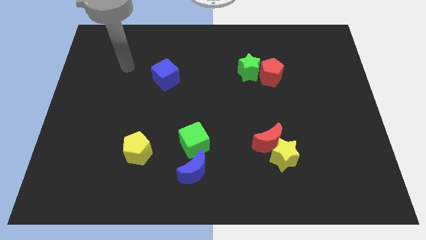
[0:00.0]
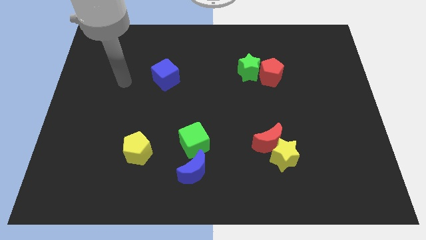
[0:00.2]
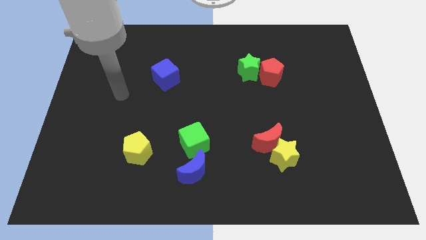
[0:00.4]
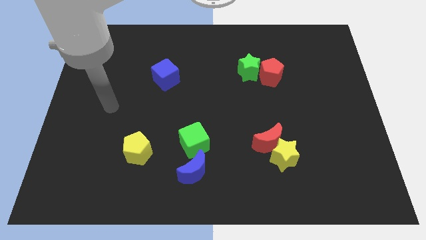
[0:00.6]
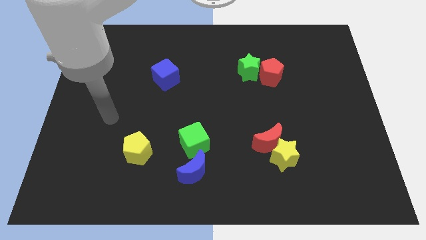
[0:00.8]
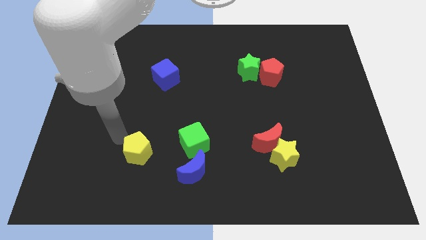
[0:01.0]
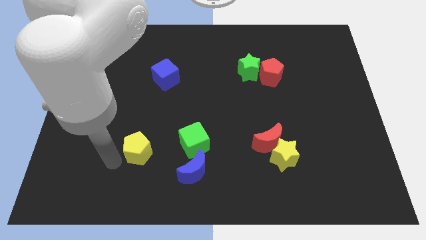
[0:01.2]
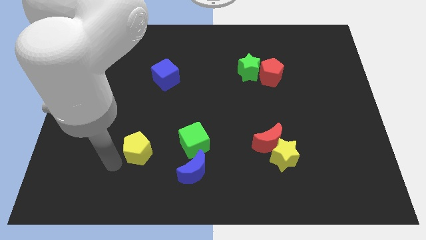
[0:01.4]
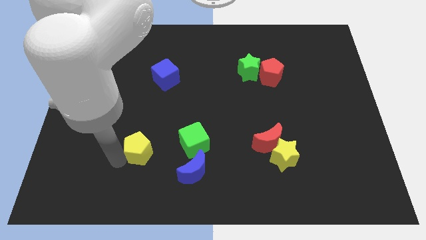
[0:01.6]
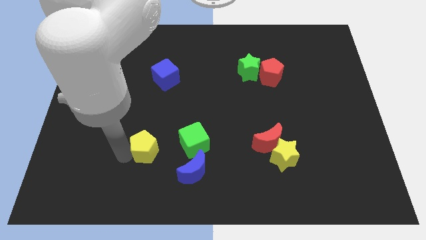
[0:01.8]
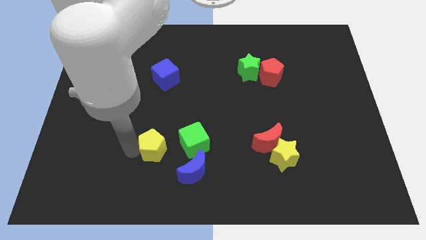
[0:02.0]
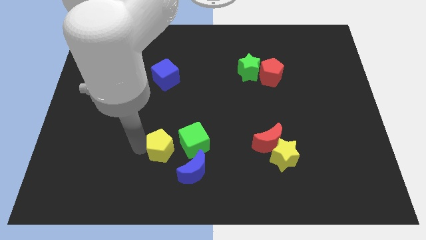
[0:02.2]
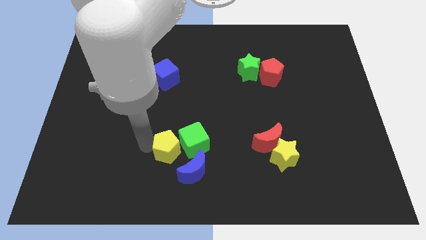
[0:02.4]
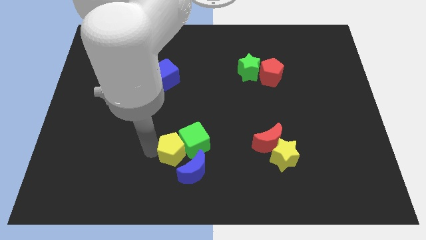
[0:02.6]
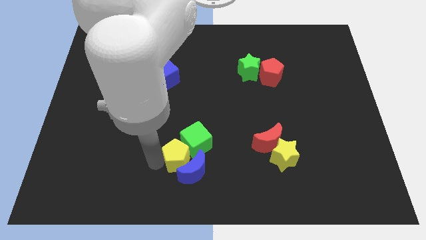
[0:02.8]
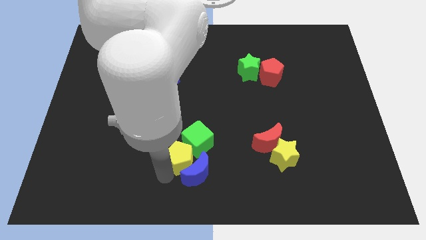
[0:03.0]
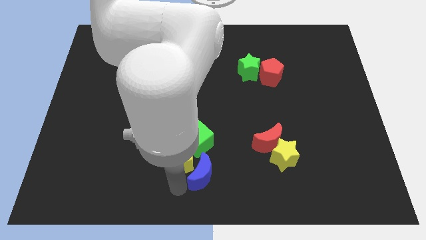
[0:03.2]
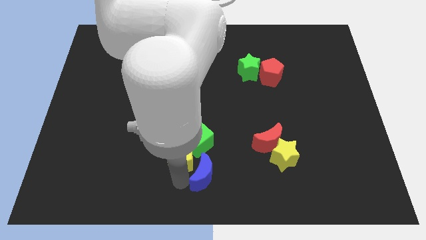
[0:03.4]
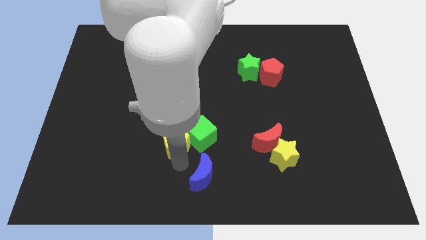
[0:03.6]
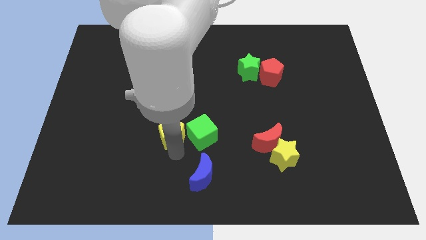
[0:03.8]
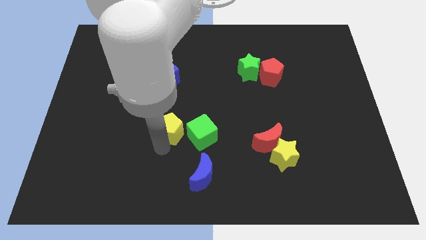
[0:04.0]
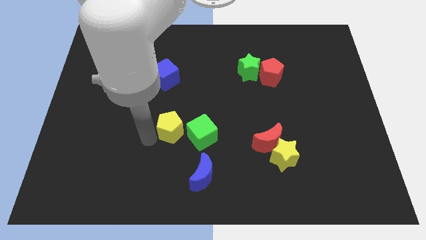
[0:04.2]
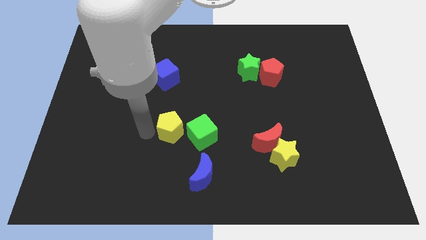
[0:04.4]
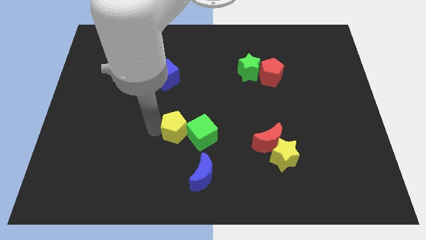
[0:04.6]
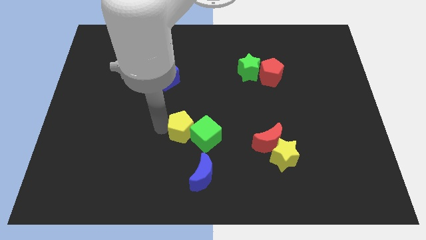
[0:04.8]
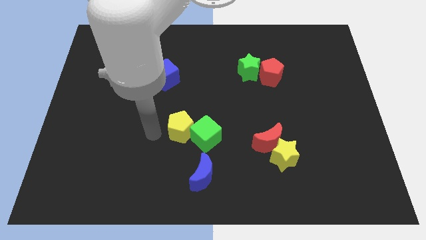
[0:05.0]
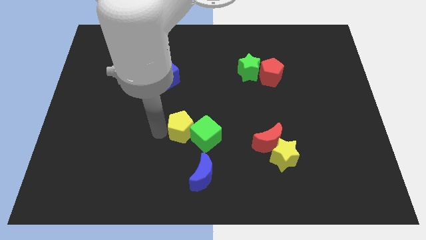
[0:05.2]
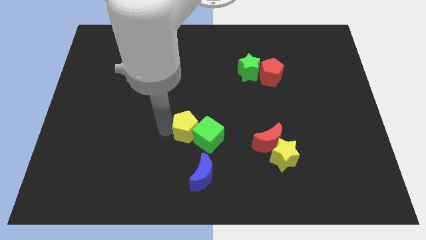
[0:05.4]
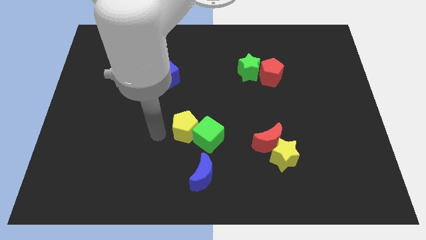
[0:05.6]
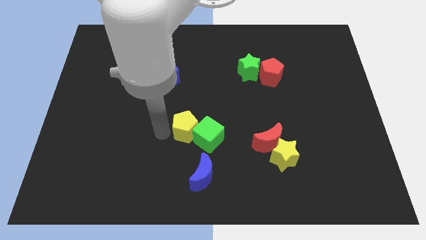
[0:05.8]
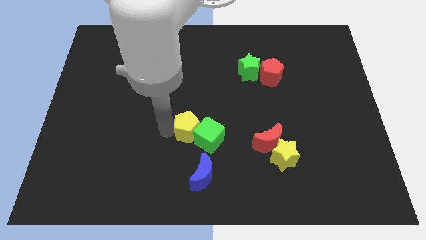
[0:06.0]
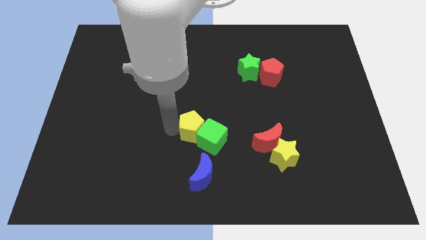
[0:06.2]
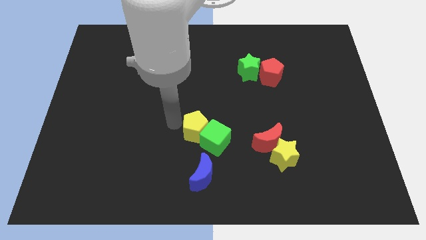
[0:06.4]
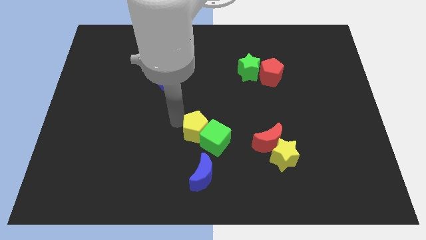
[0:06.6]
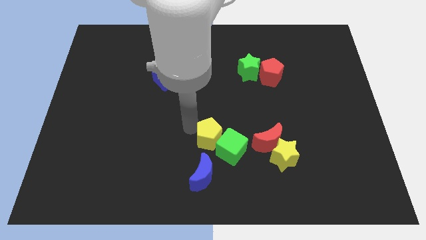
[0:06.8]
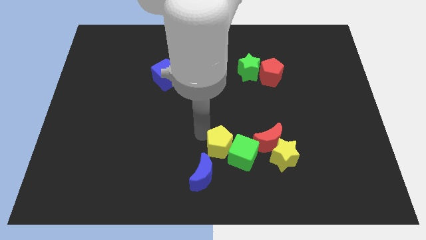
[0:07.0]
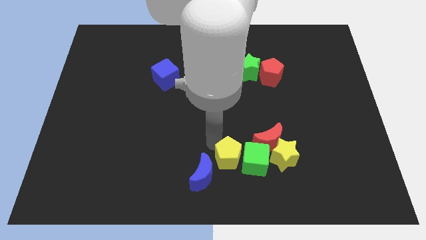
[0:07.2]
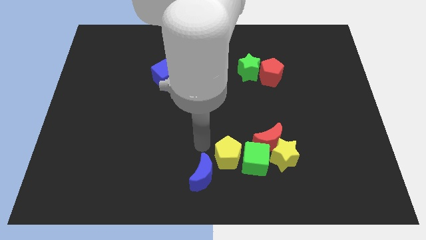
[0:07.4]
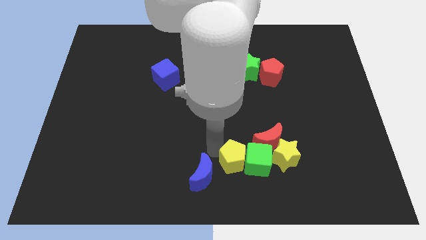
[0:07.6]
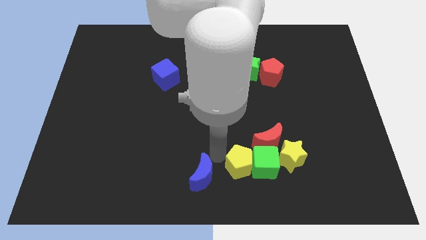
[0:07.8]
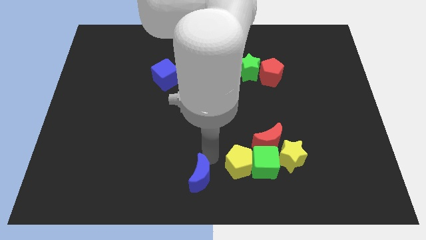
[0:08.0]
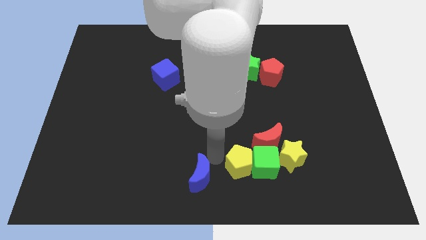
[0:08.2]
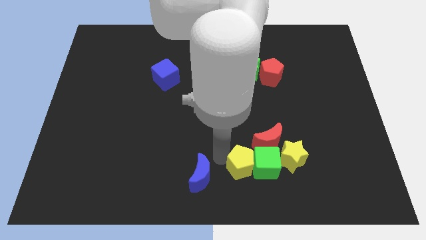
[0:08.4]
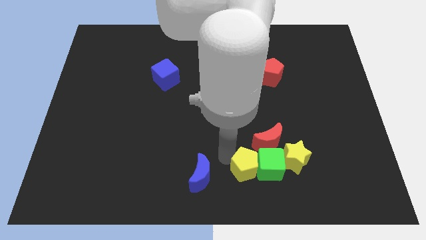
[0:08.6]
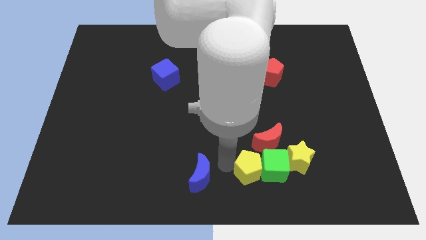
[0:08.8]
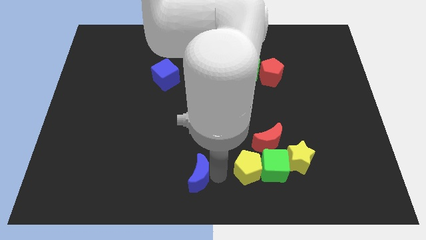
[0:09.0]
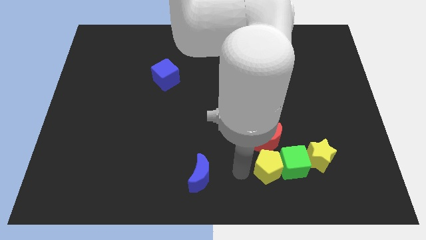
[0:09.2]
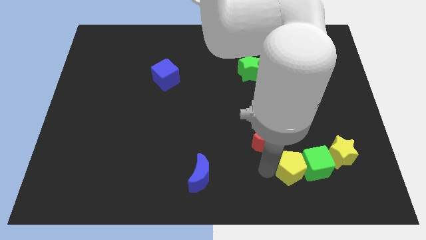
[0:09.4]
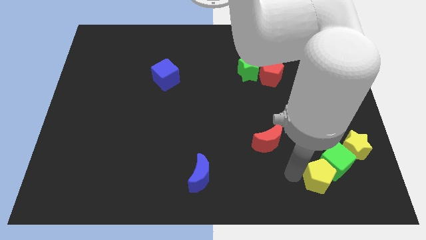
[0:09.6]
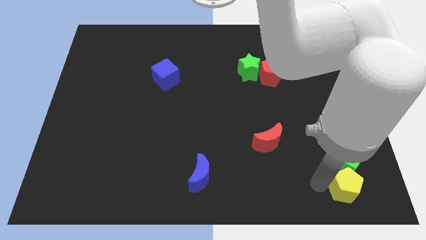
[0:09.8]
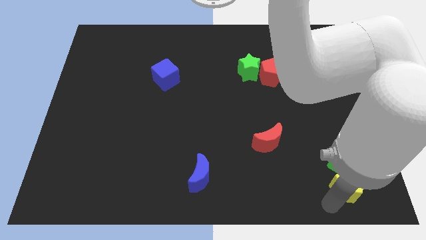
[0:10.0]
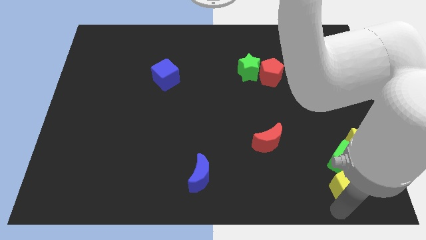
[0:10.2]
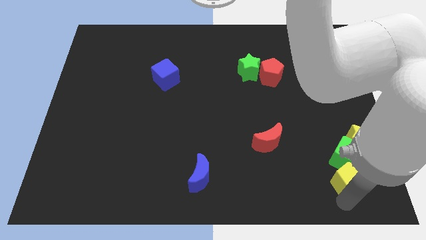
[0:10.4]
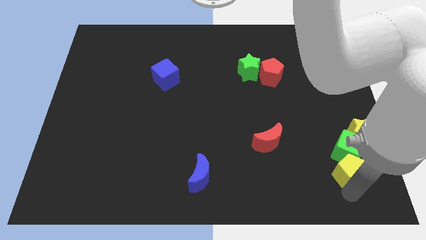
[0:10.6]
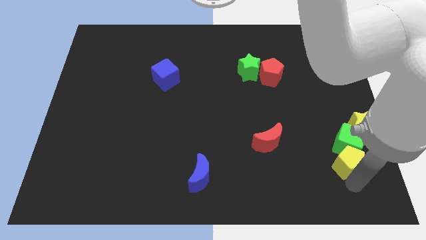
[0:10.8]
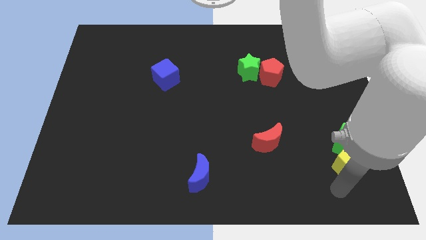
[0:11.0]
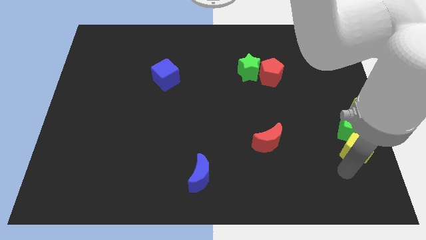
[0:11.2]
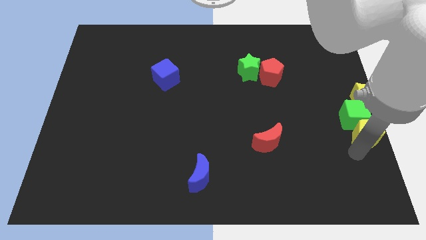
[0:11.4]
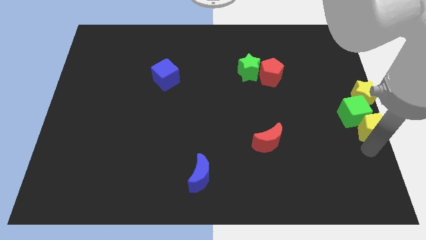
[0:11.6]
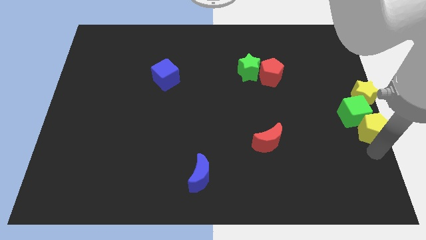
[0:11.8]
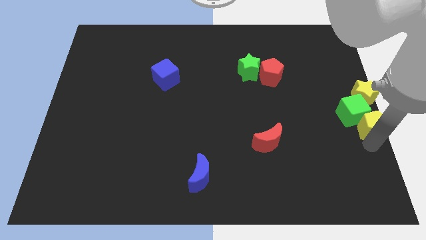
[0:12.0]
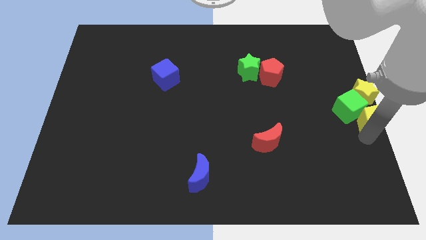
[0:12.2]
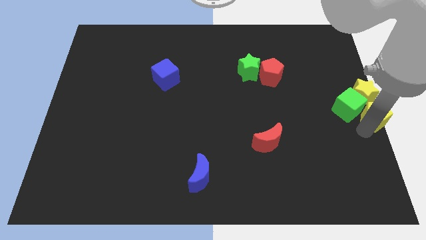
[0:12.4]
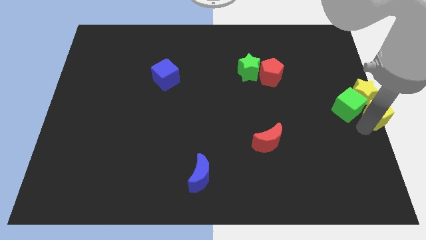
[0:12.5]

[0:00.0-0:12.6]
push the yellow pentagon to the yellow star

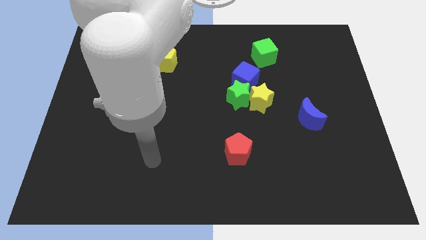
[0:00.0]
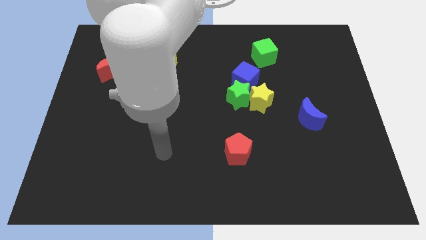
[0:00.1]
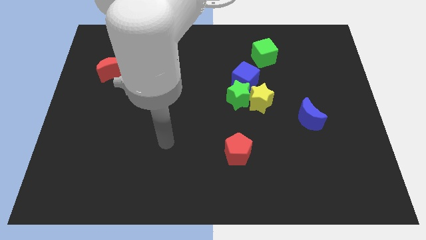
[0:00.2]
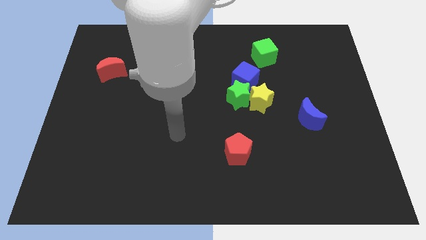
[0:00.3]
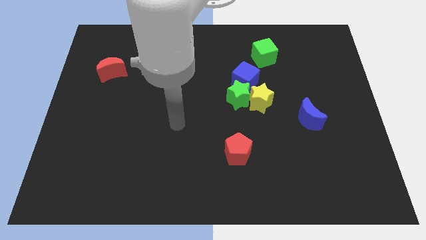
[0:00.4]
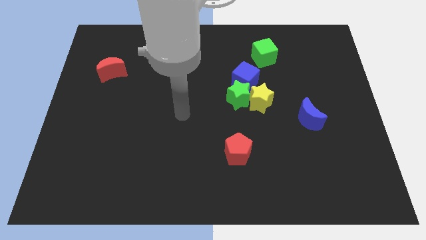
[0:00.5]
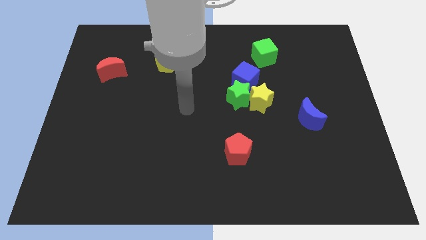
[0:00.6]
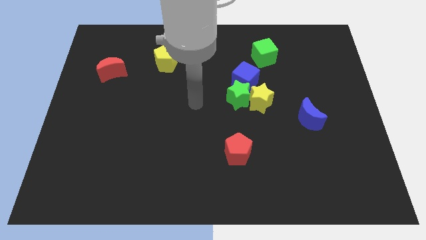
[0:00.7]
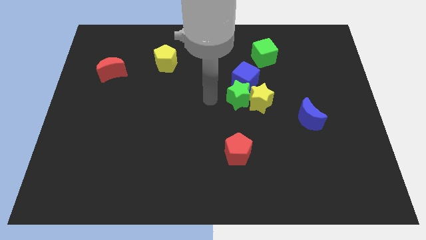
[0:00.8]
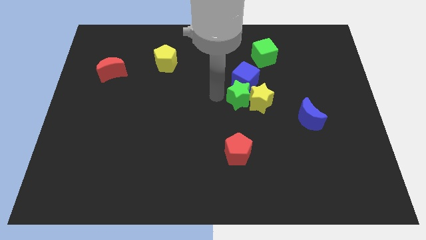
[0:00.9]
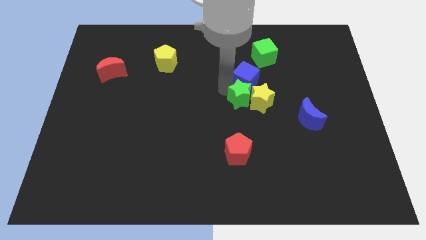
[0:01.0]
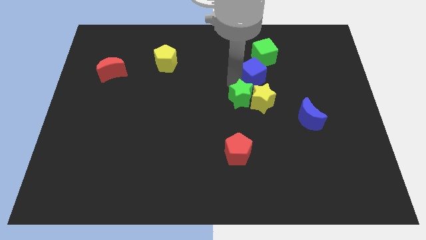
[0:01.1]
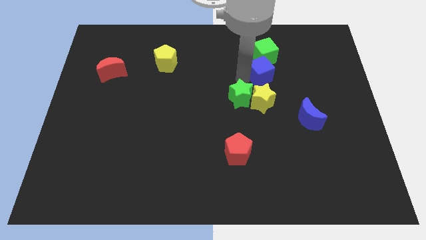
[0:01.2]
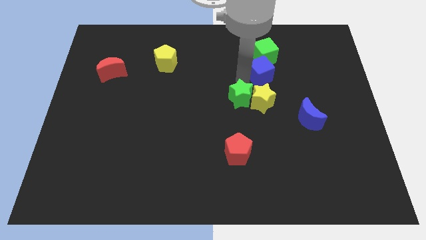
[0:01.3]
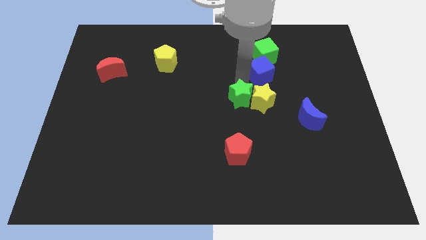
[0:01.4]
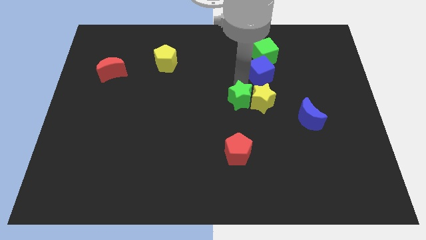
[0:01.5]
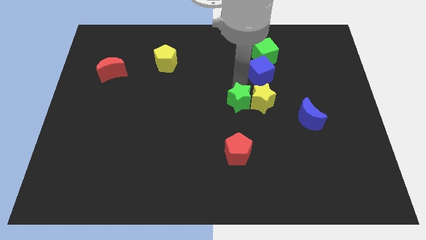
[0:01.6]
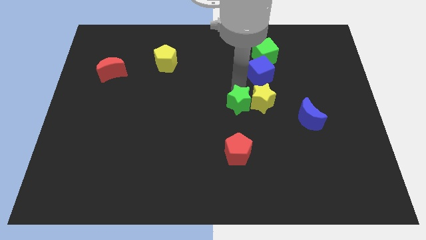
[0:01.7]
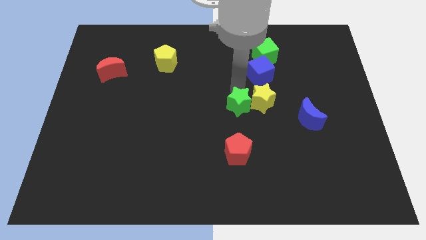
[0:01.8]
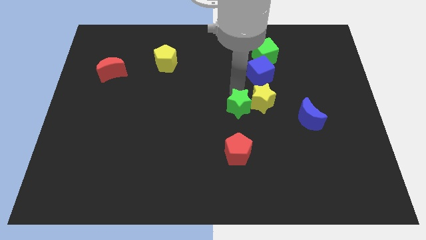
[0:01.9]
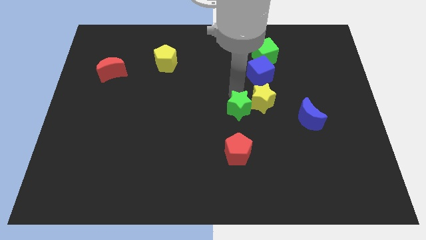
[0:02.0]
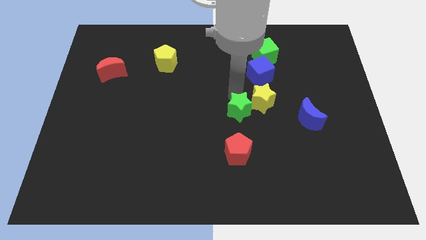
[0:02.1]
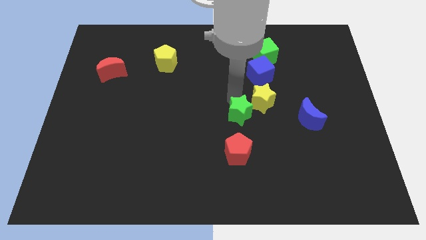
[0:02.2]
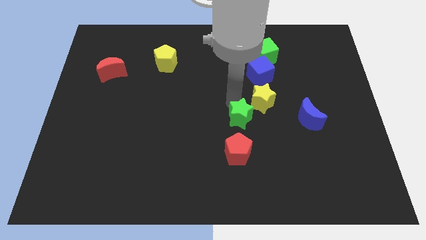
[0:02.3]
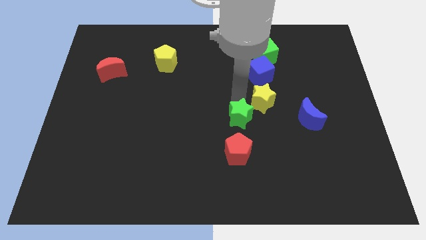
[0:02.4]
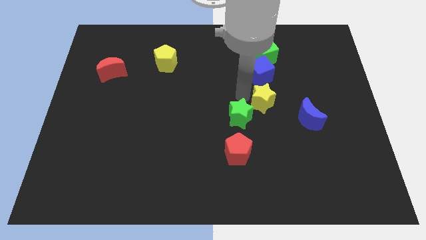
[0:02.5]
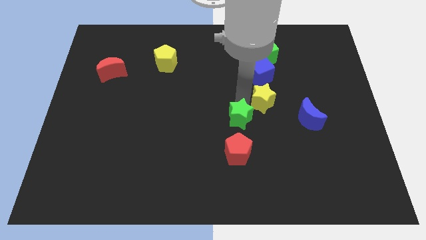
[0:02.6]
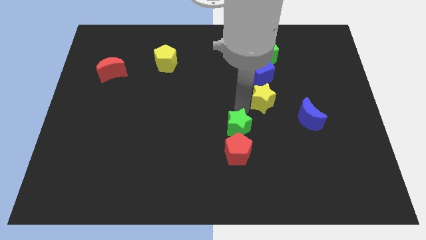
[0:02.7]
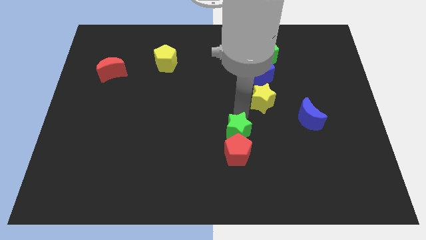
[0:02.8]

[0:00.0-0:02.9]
slide the green star to the red pentagon
